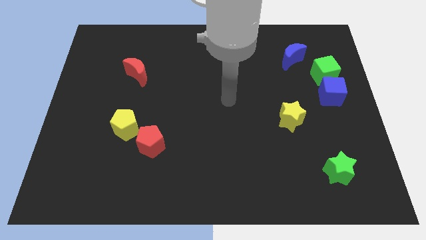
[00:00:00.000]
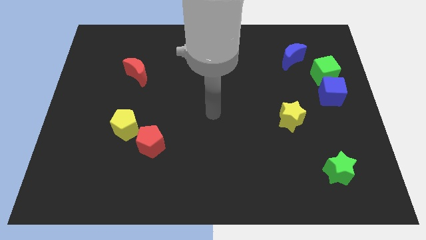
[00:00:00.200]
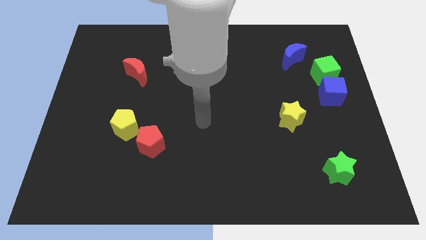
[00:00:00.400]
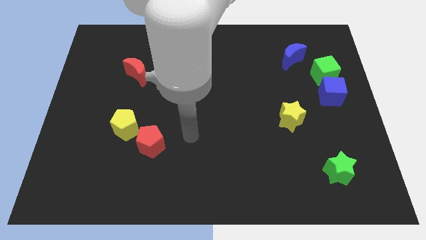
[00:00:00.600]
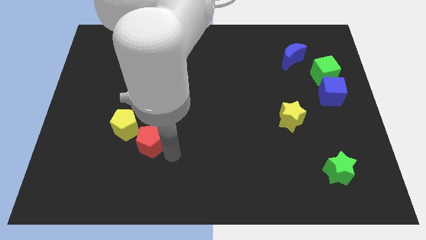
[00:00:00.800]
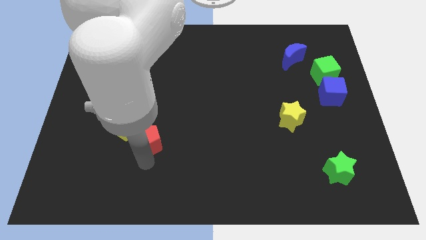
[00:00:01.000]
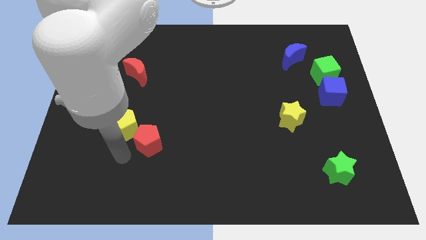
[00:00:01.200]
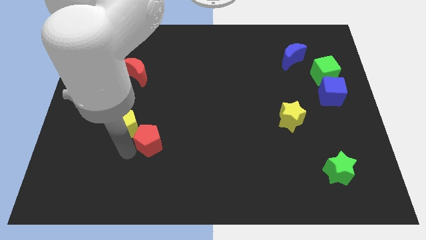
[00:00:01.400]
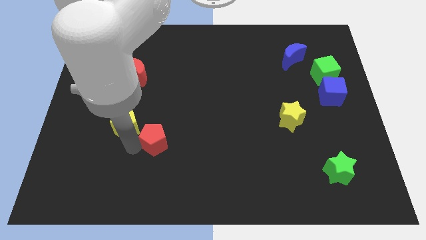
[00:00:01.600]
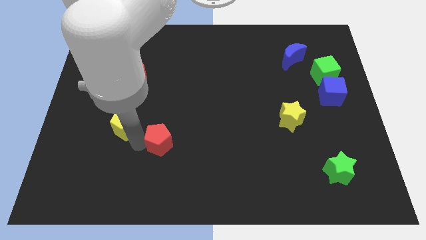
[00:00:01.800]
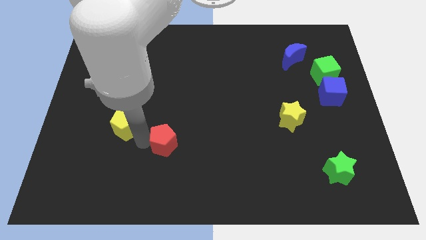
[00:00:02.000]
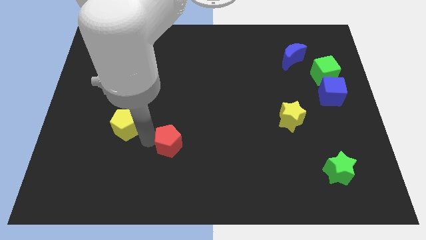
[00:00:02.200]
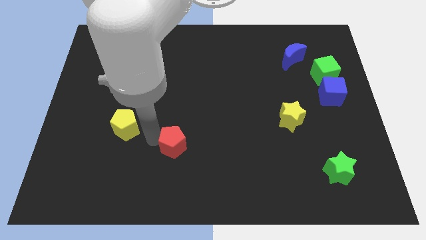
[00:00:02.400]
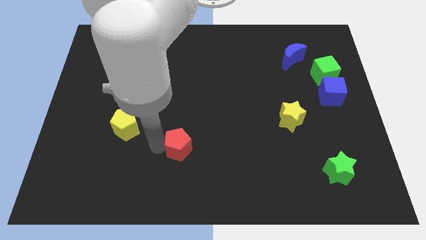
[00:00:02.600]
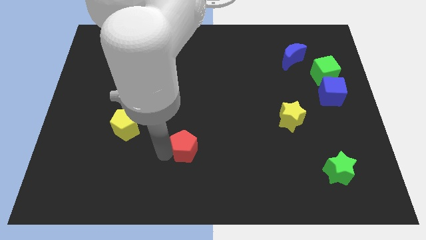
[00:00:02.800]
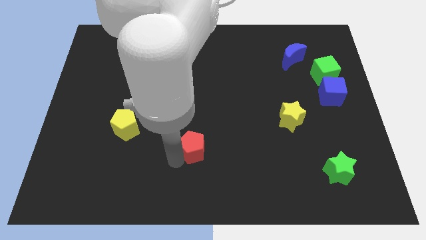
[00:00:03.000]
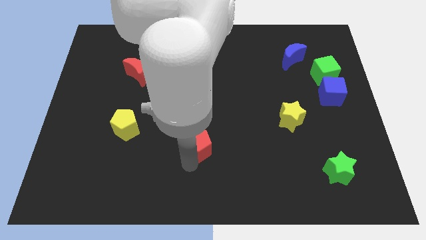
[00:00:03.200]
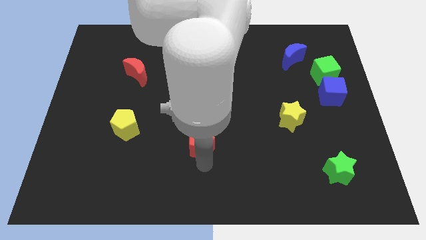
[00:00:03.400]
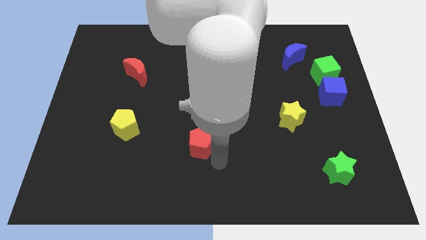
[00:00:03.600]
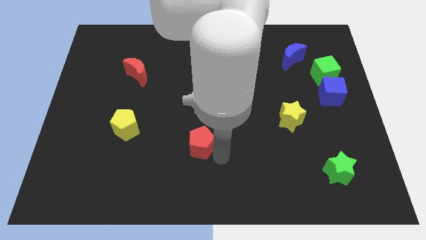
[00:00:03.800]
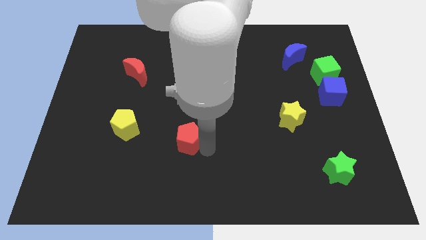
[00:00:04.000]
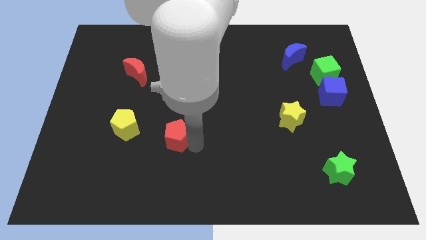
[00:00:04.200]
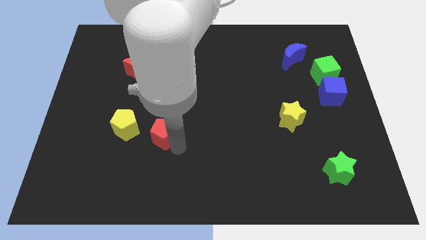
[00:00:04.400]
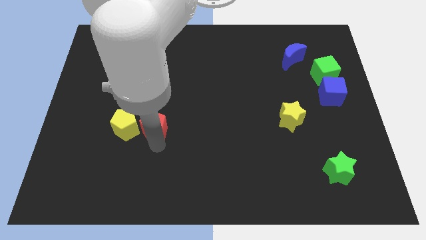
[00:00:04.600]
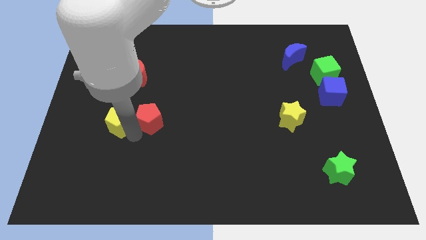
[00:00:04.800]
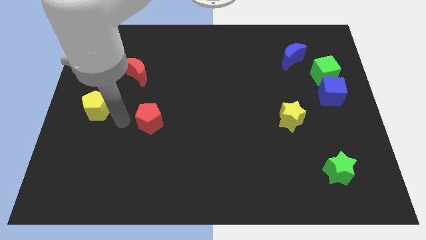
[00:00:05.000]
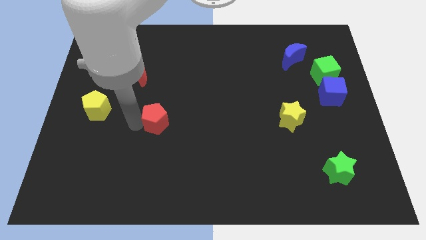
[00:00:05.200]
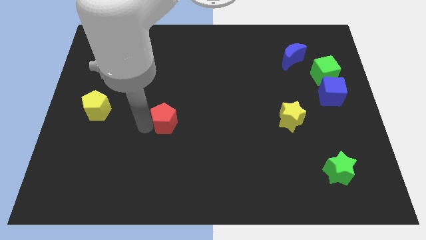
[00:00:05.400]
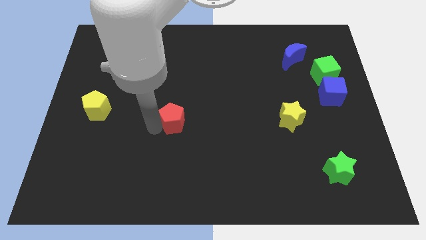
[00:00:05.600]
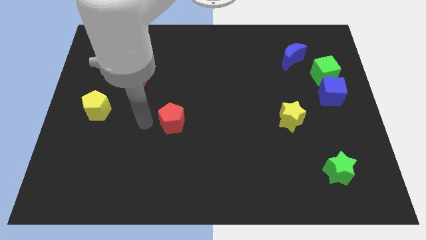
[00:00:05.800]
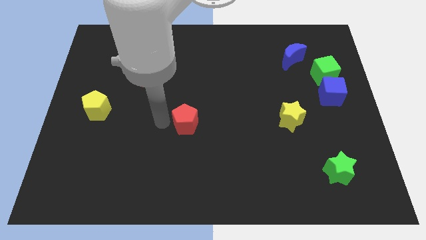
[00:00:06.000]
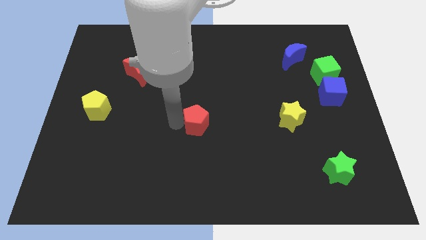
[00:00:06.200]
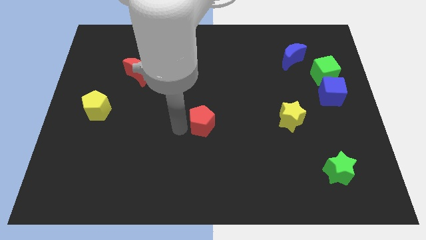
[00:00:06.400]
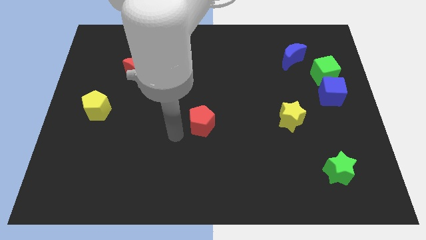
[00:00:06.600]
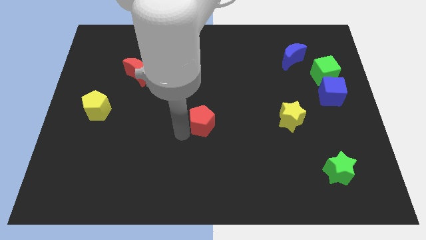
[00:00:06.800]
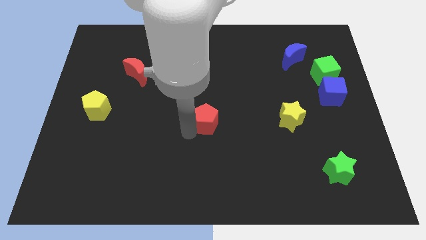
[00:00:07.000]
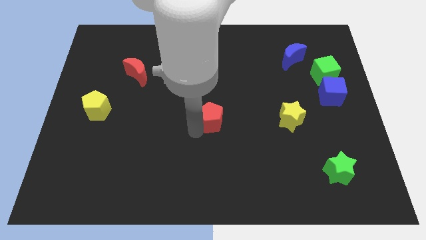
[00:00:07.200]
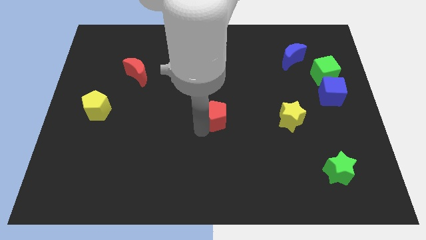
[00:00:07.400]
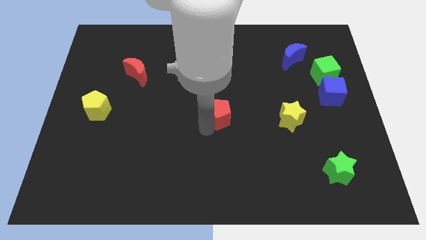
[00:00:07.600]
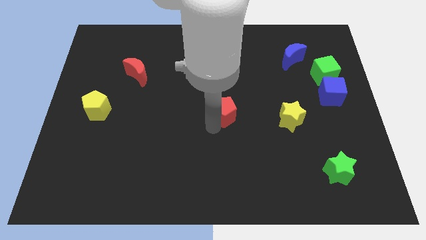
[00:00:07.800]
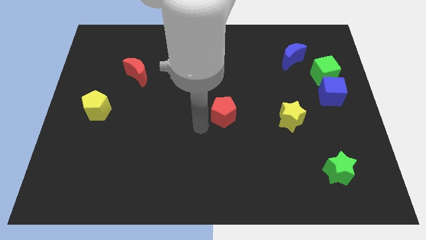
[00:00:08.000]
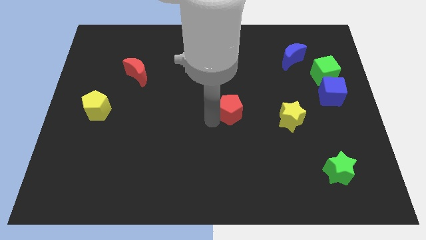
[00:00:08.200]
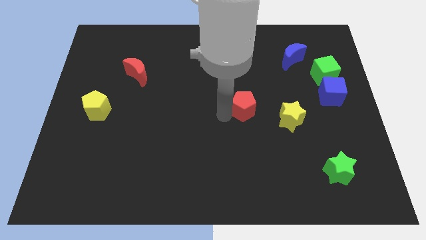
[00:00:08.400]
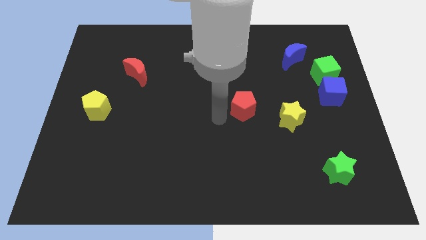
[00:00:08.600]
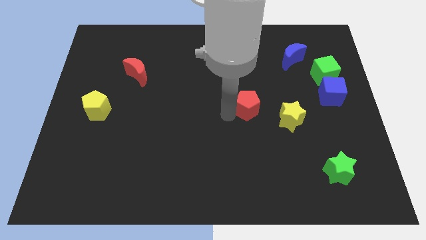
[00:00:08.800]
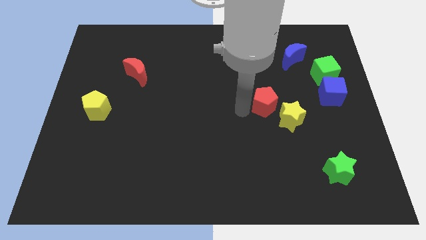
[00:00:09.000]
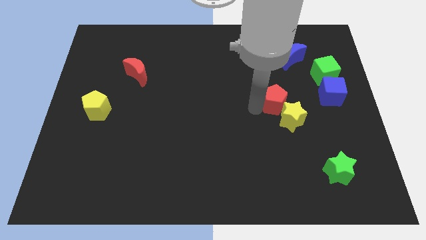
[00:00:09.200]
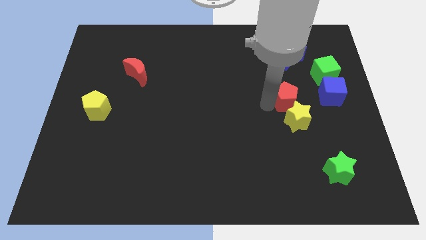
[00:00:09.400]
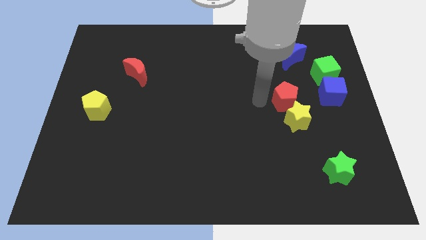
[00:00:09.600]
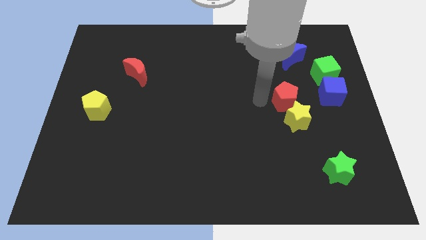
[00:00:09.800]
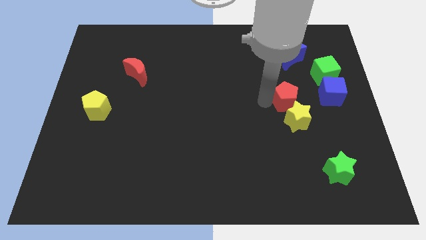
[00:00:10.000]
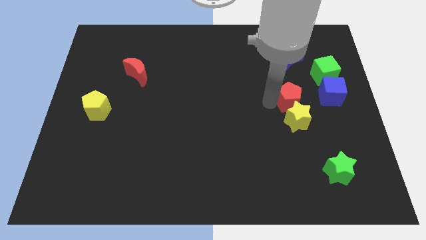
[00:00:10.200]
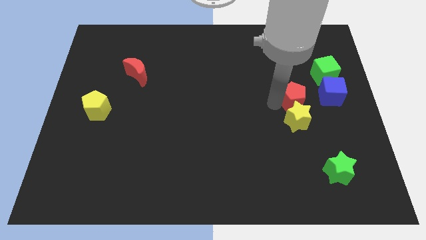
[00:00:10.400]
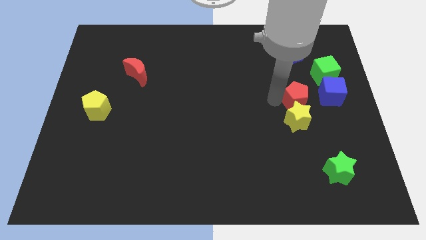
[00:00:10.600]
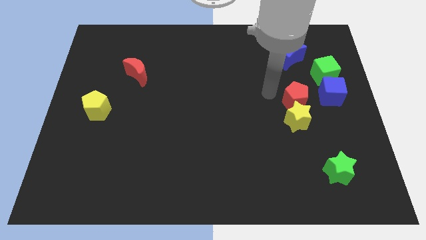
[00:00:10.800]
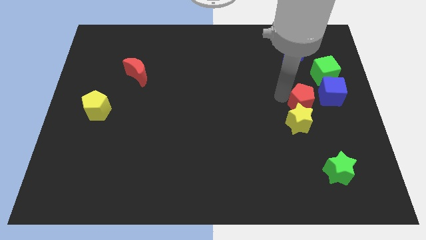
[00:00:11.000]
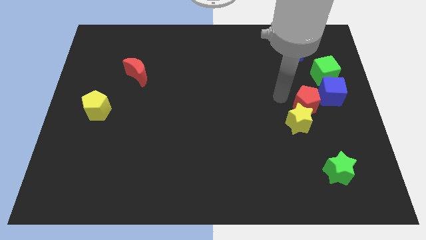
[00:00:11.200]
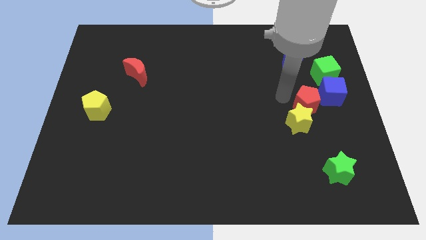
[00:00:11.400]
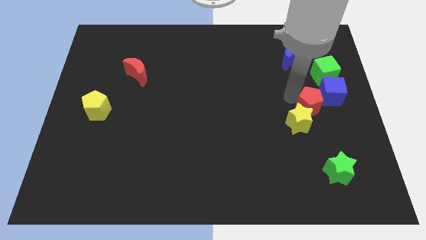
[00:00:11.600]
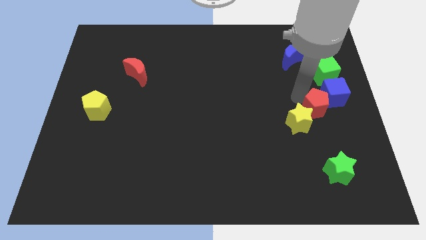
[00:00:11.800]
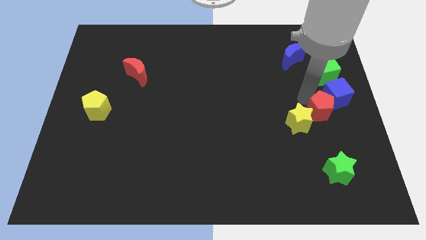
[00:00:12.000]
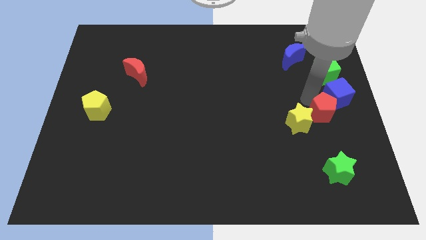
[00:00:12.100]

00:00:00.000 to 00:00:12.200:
slide the red pentagon to the right side

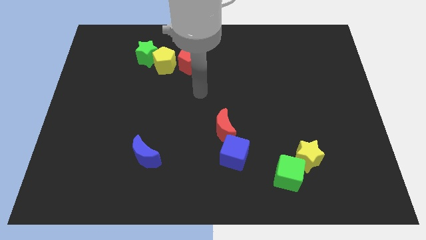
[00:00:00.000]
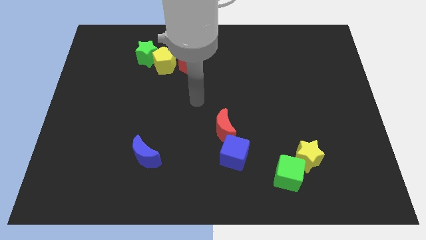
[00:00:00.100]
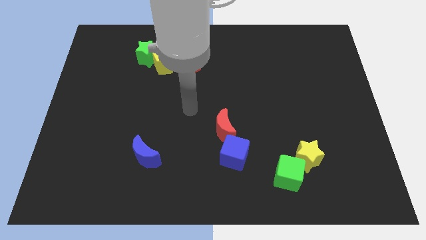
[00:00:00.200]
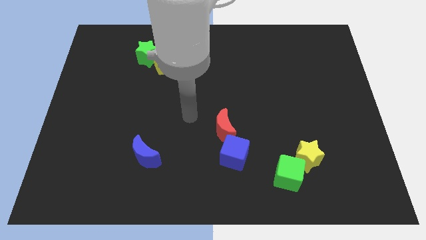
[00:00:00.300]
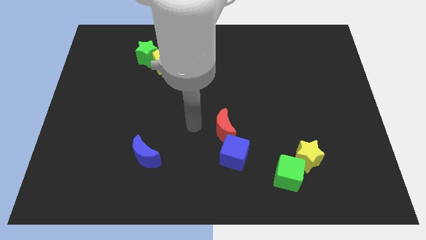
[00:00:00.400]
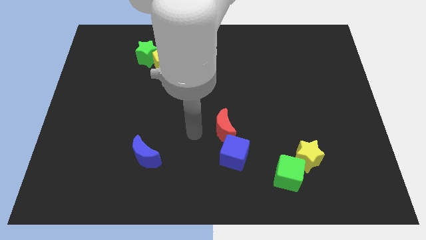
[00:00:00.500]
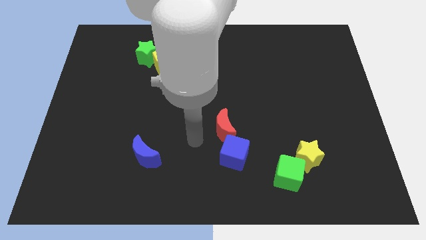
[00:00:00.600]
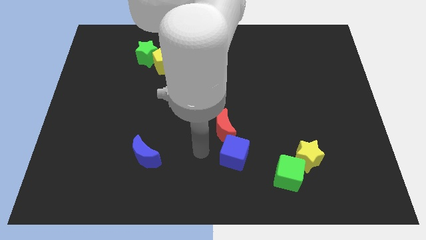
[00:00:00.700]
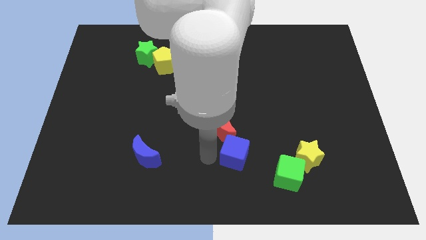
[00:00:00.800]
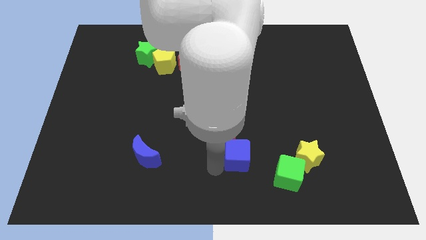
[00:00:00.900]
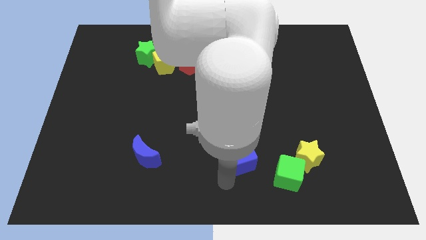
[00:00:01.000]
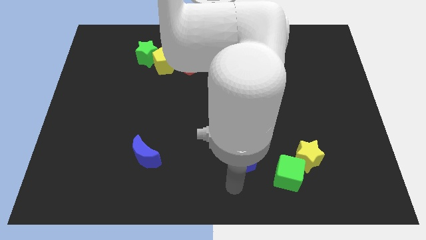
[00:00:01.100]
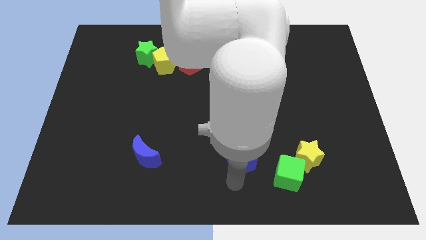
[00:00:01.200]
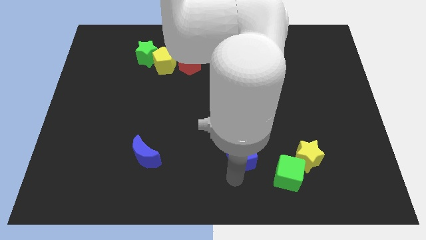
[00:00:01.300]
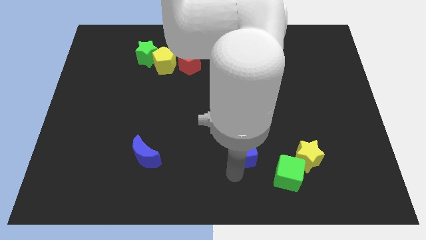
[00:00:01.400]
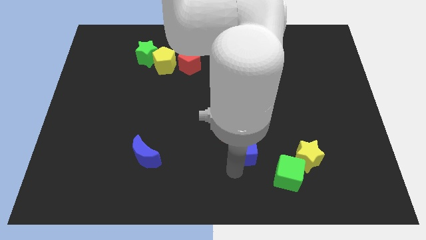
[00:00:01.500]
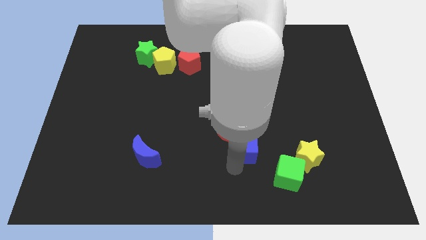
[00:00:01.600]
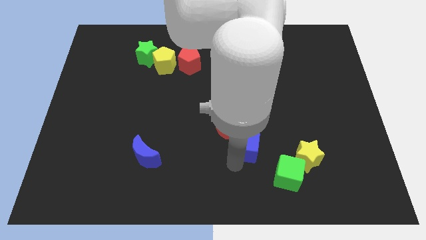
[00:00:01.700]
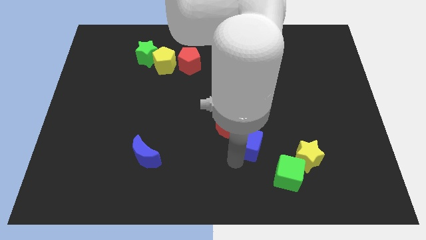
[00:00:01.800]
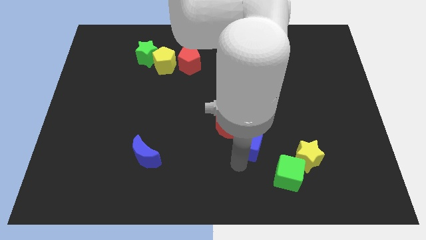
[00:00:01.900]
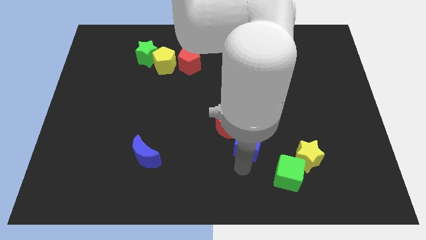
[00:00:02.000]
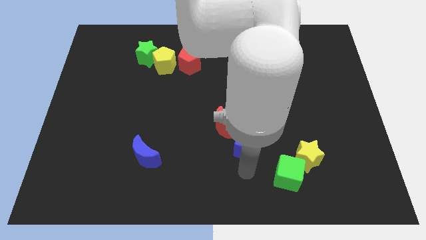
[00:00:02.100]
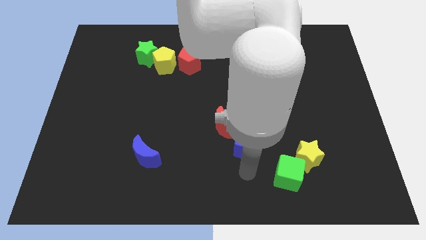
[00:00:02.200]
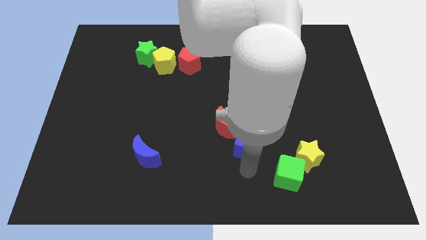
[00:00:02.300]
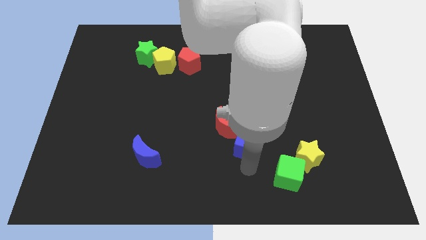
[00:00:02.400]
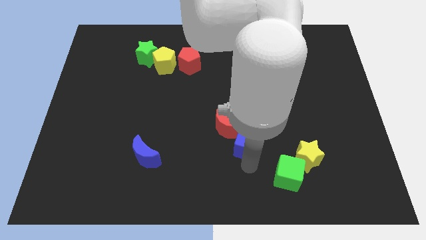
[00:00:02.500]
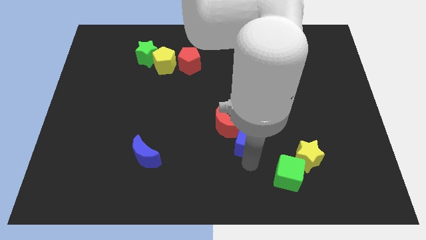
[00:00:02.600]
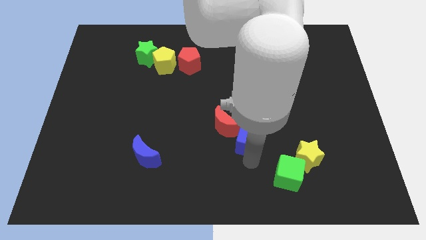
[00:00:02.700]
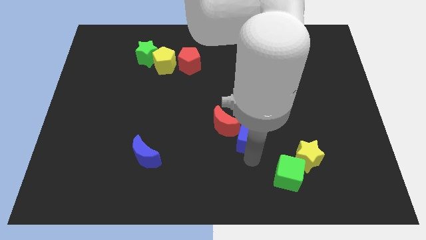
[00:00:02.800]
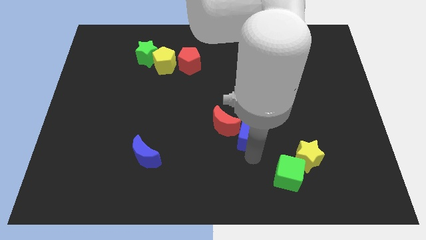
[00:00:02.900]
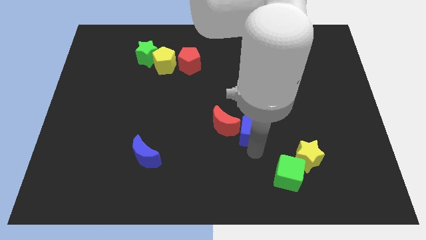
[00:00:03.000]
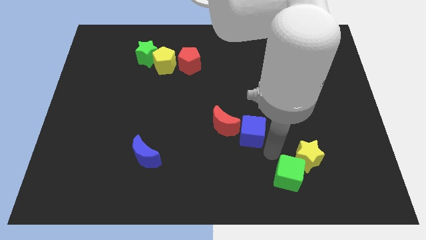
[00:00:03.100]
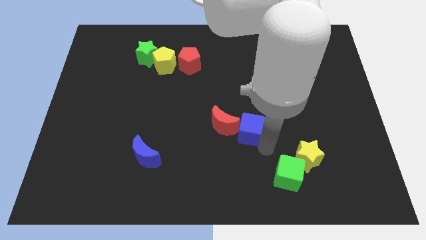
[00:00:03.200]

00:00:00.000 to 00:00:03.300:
put the blue cube to the middle of the board
